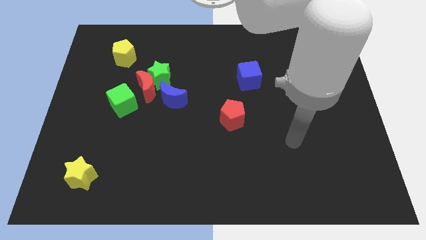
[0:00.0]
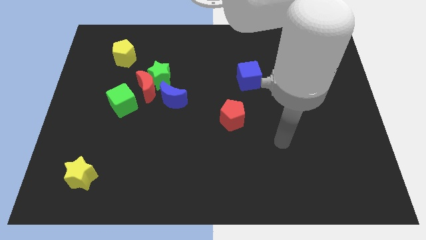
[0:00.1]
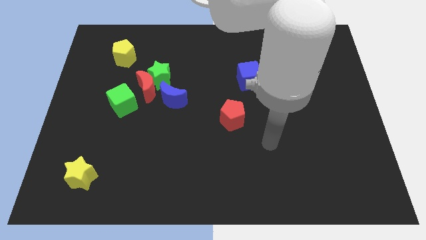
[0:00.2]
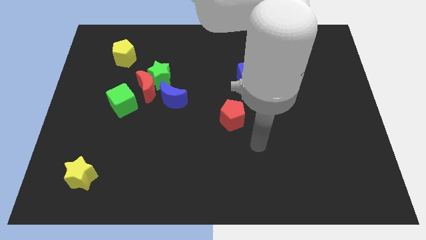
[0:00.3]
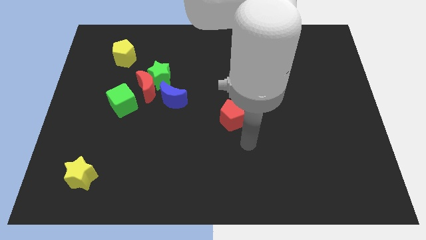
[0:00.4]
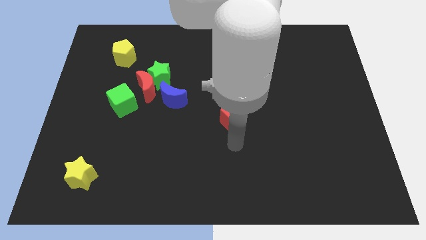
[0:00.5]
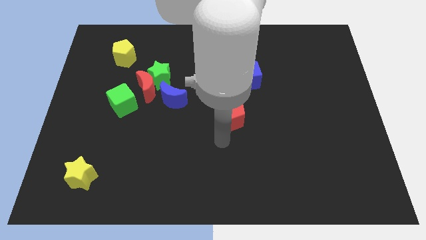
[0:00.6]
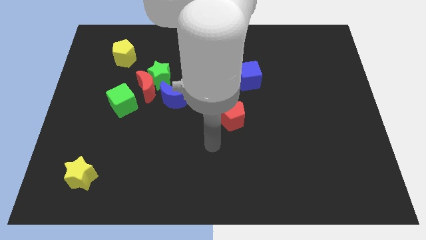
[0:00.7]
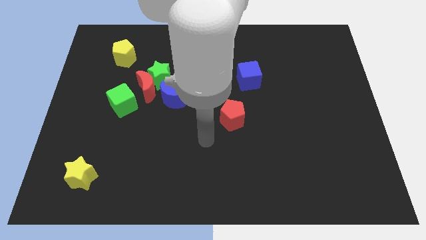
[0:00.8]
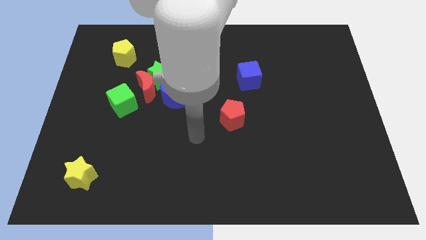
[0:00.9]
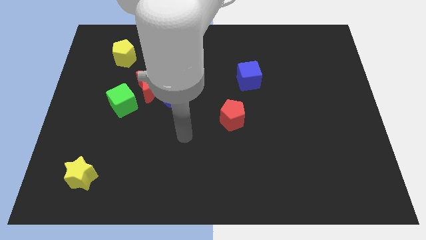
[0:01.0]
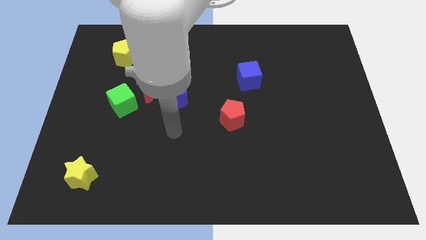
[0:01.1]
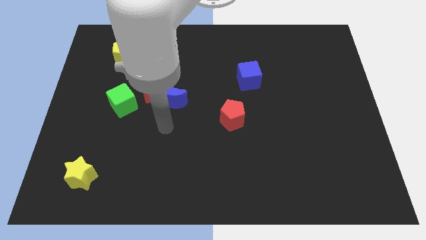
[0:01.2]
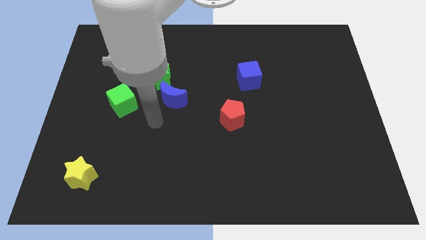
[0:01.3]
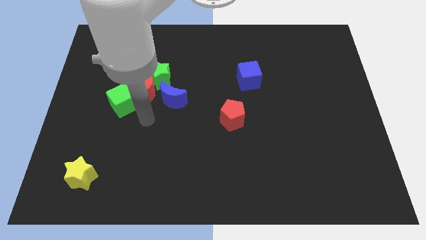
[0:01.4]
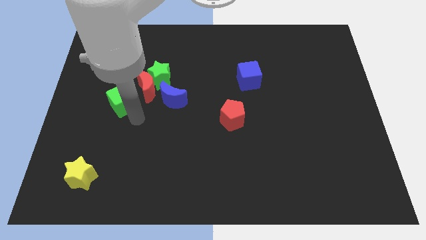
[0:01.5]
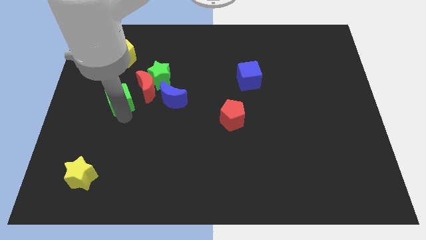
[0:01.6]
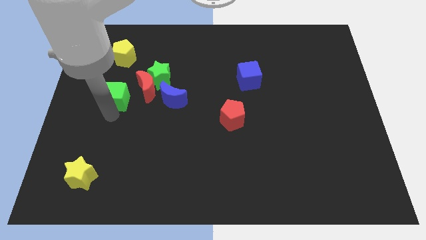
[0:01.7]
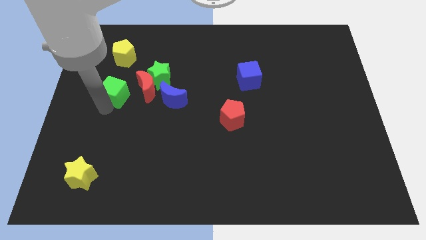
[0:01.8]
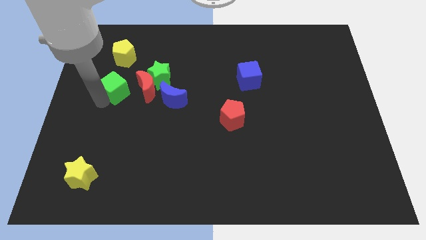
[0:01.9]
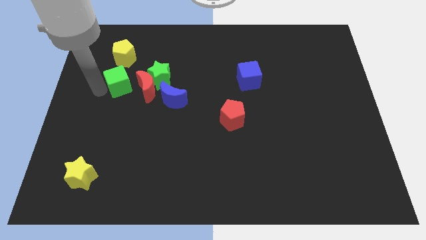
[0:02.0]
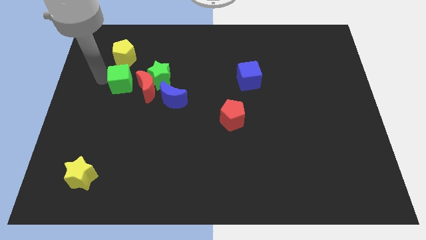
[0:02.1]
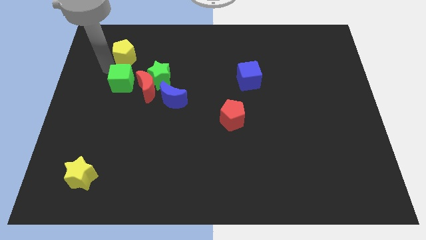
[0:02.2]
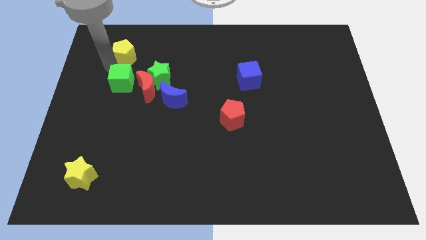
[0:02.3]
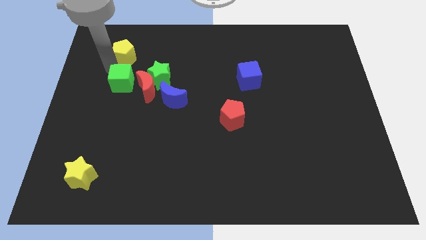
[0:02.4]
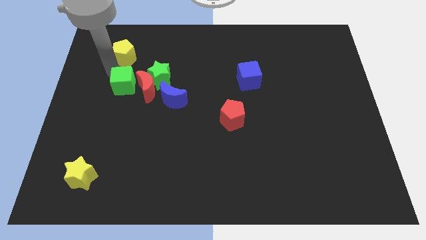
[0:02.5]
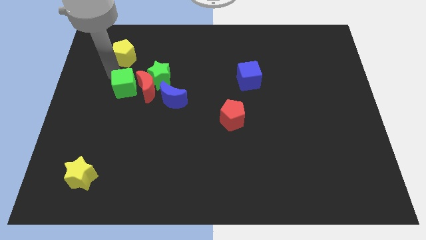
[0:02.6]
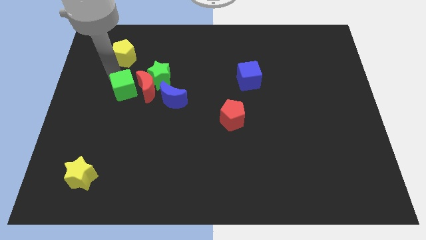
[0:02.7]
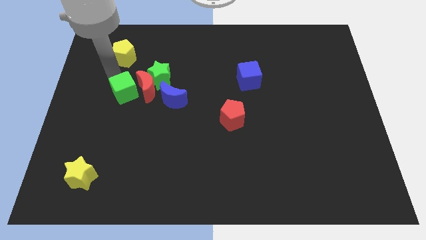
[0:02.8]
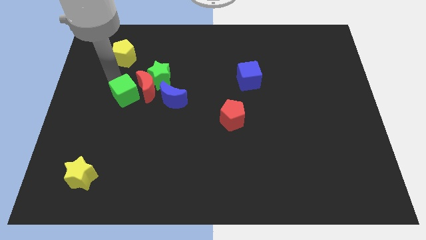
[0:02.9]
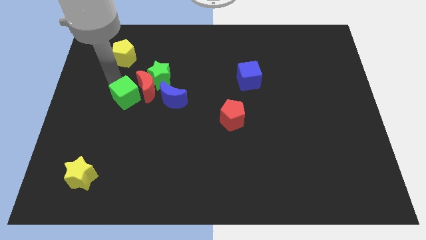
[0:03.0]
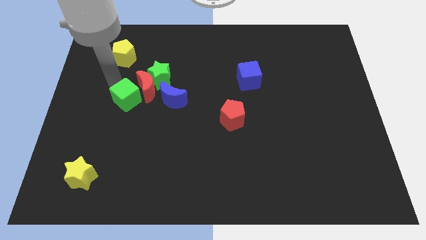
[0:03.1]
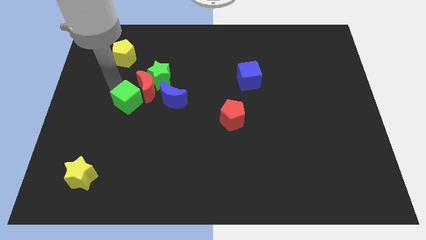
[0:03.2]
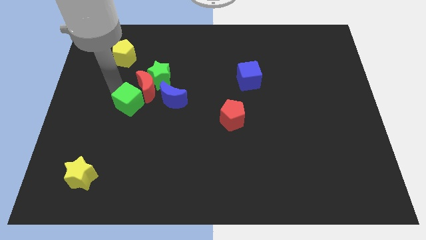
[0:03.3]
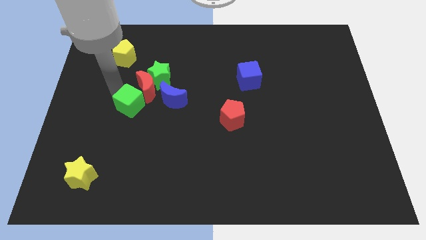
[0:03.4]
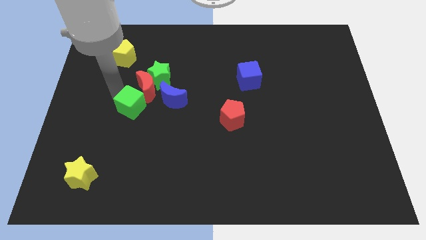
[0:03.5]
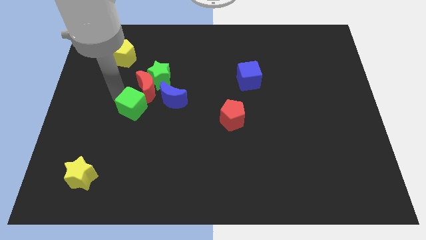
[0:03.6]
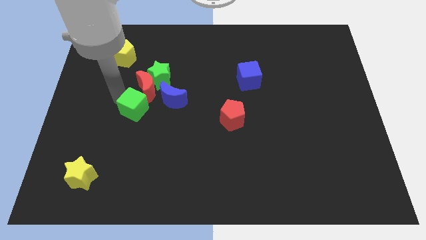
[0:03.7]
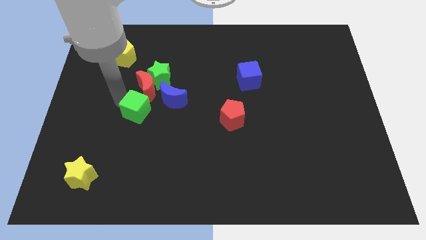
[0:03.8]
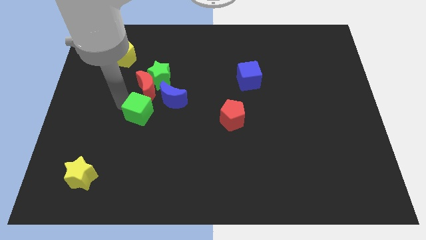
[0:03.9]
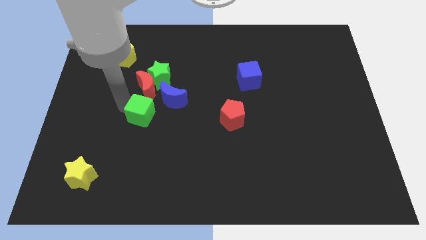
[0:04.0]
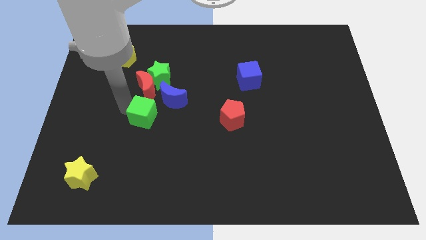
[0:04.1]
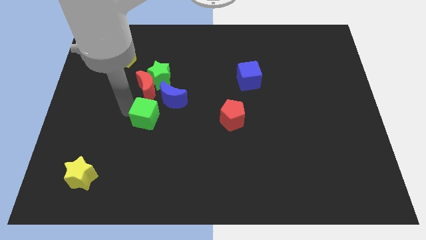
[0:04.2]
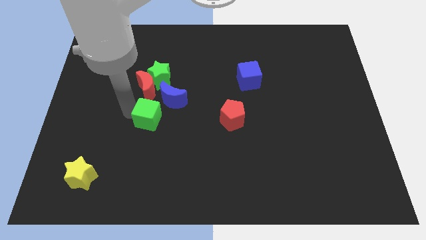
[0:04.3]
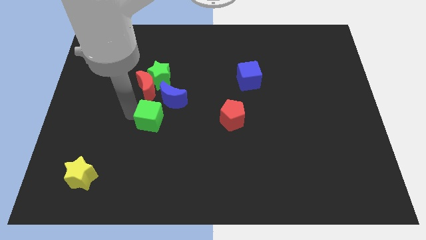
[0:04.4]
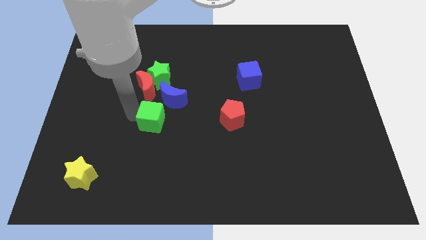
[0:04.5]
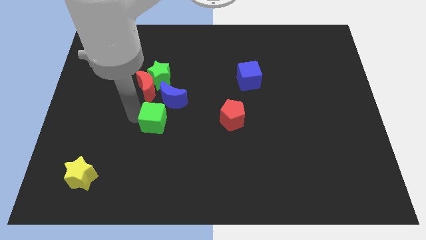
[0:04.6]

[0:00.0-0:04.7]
move the green cube to the right a little

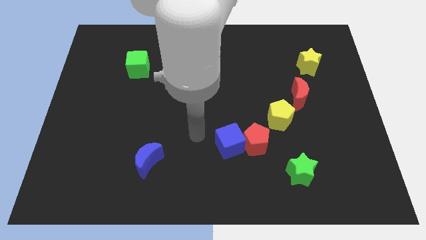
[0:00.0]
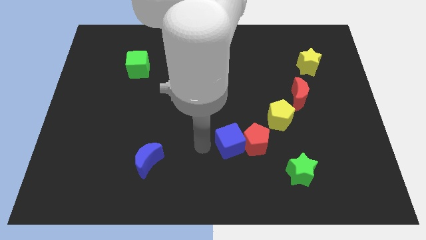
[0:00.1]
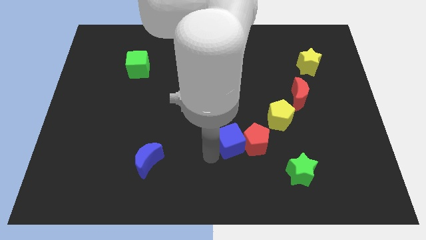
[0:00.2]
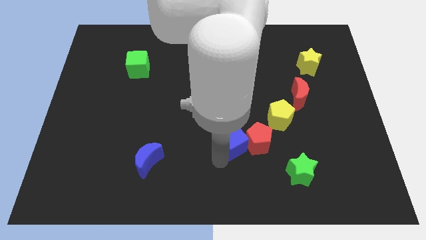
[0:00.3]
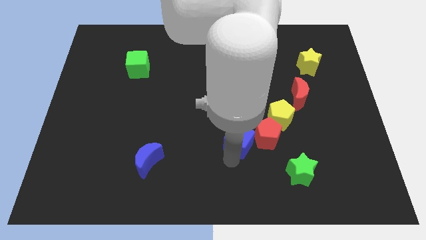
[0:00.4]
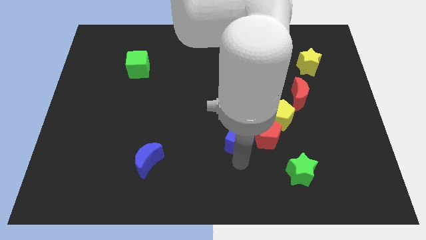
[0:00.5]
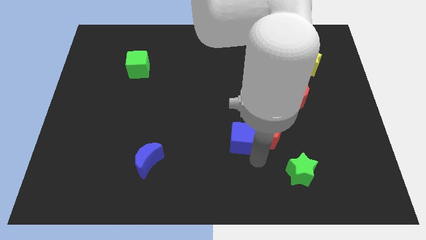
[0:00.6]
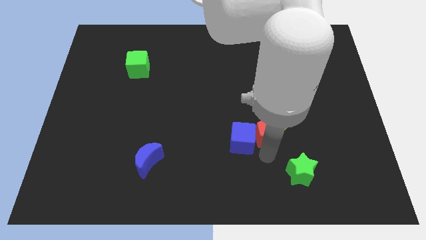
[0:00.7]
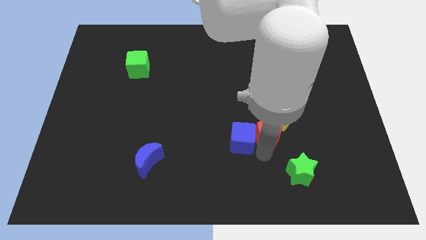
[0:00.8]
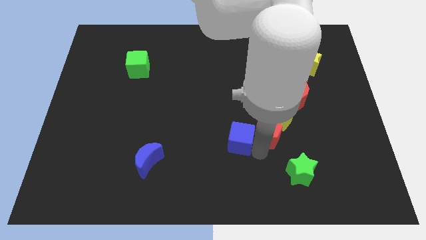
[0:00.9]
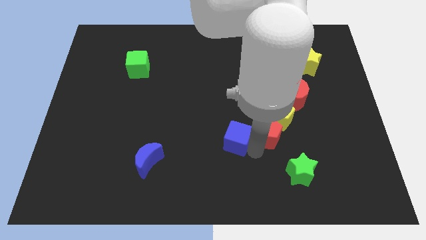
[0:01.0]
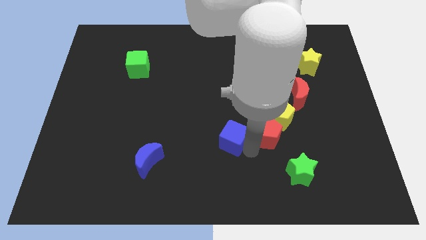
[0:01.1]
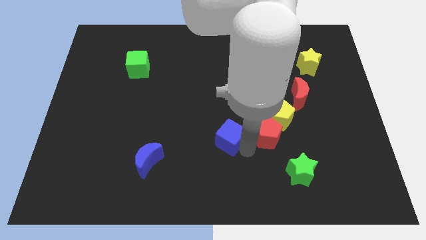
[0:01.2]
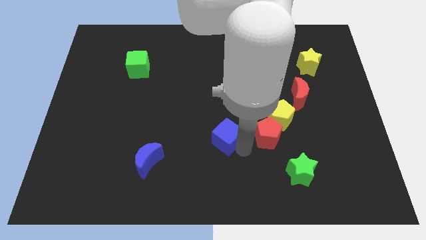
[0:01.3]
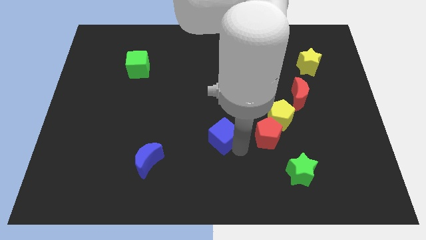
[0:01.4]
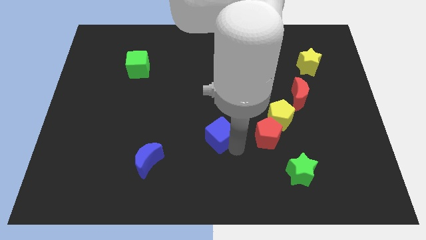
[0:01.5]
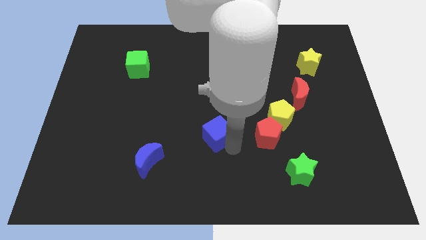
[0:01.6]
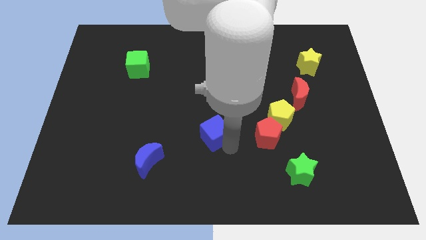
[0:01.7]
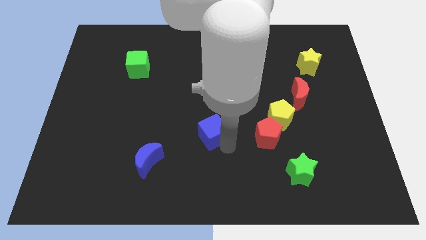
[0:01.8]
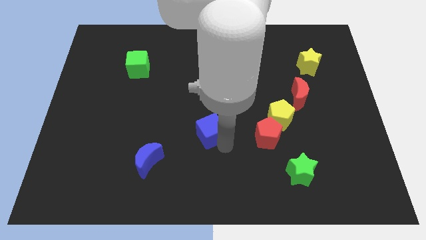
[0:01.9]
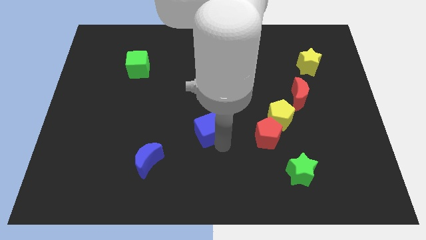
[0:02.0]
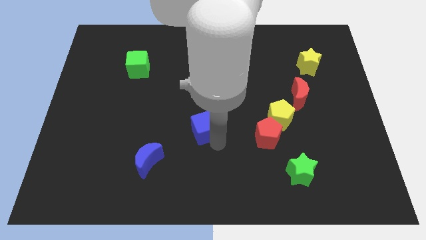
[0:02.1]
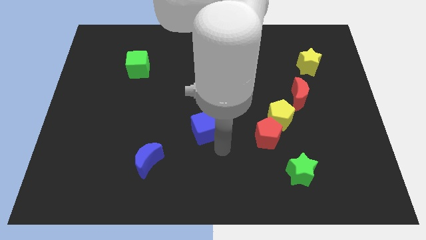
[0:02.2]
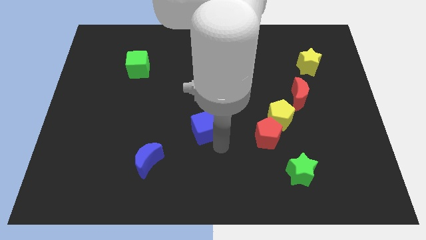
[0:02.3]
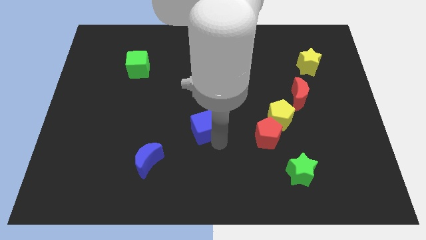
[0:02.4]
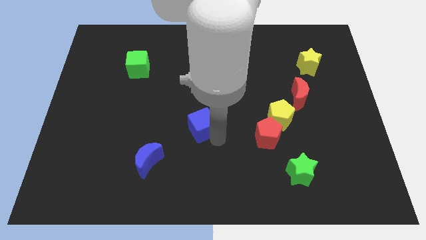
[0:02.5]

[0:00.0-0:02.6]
slide the blue cube diagonally up and left a little

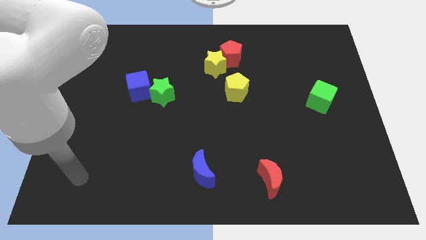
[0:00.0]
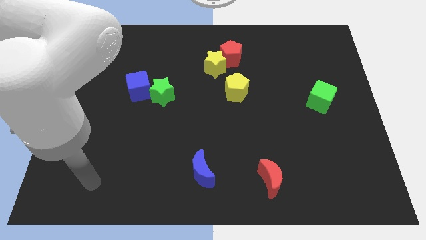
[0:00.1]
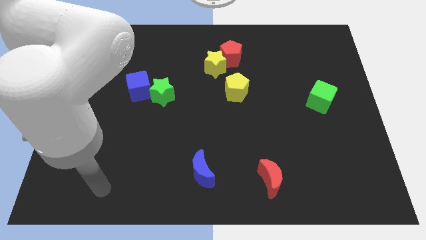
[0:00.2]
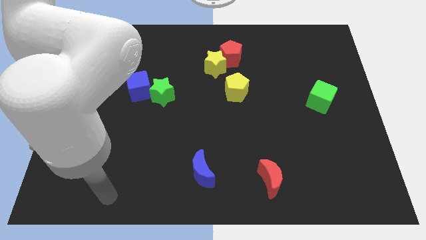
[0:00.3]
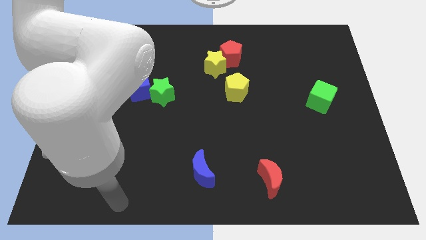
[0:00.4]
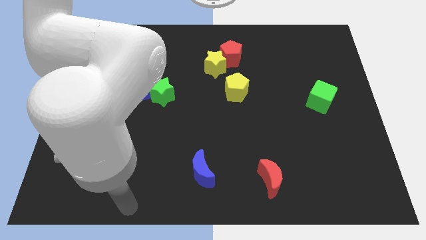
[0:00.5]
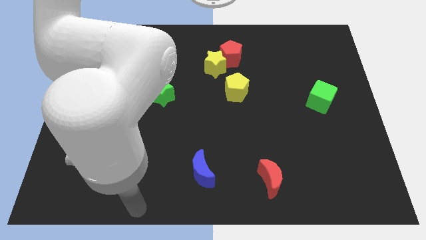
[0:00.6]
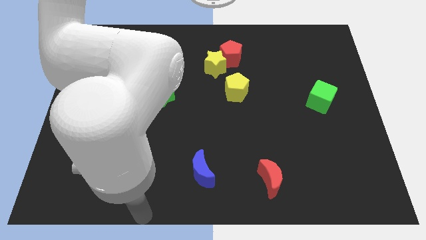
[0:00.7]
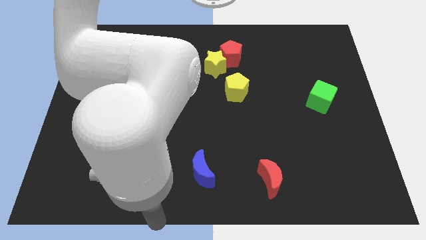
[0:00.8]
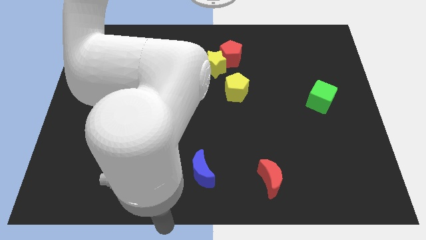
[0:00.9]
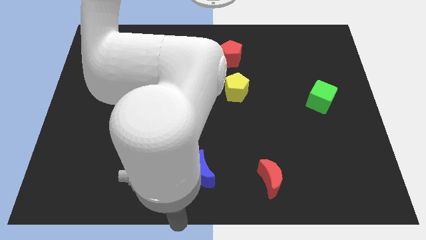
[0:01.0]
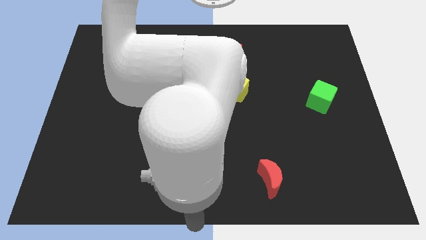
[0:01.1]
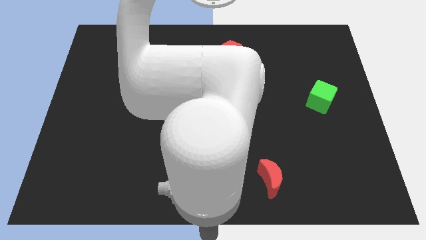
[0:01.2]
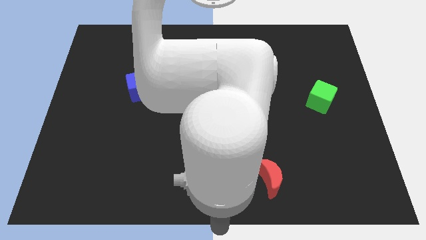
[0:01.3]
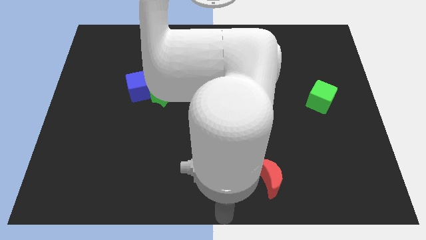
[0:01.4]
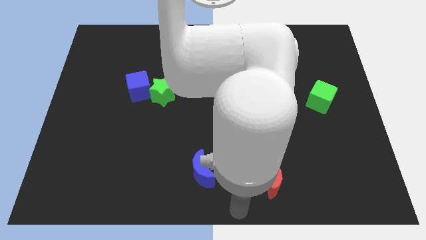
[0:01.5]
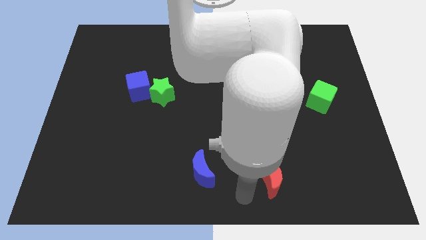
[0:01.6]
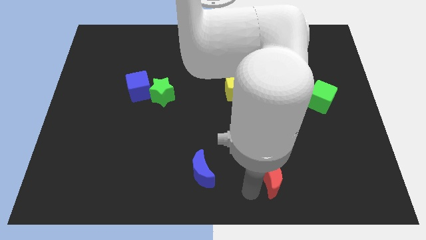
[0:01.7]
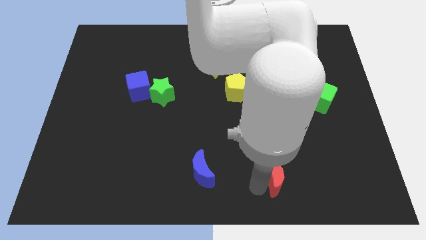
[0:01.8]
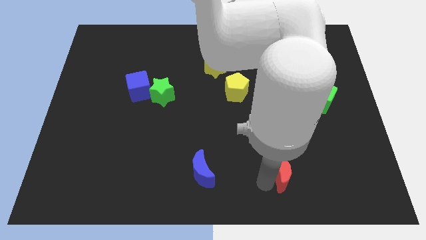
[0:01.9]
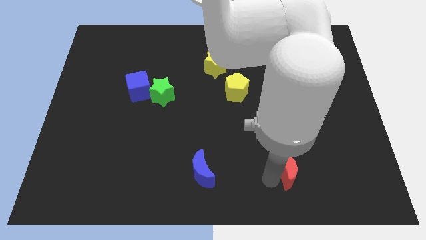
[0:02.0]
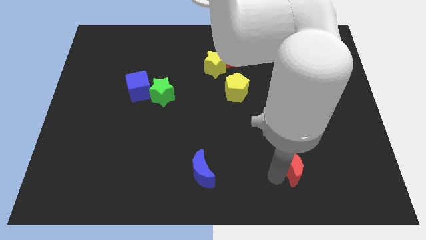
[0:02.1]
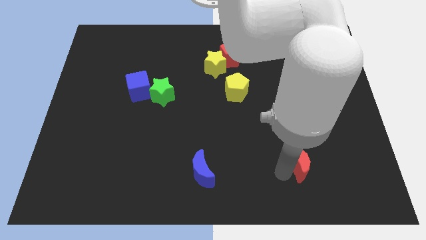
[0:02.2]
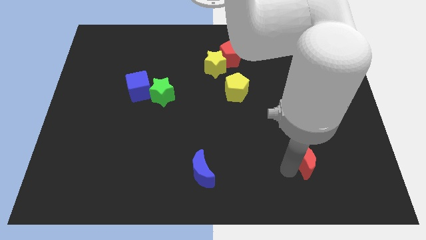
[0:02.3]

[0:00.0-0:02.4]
push the red moon slightly up and to the right
